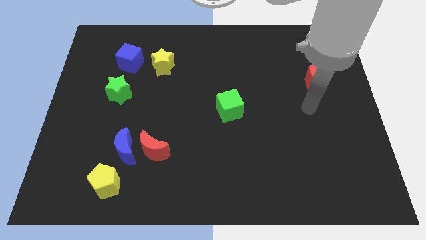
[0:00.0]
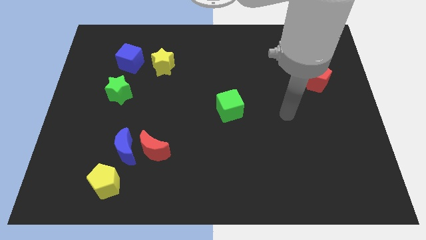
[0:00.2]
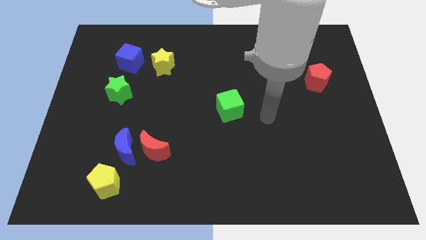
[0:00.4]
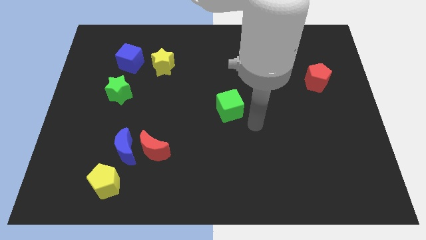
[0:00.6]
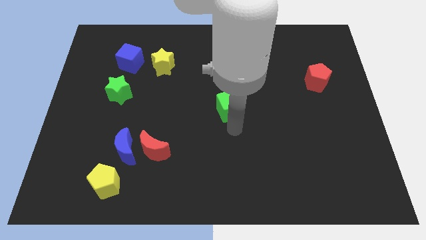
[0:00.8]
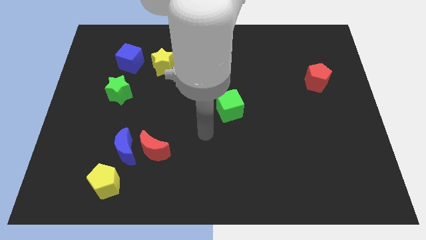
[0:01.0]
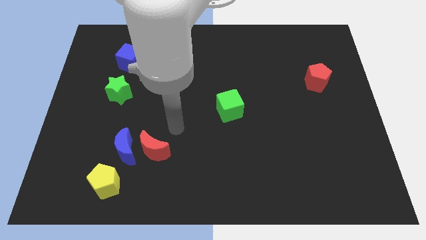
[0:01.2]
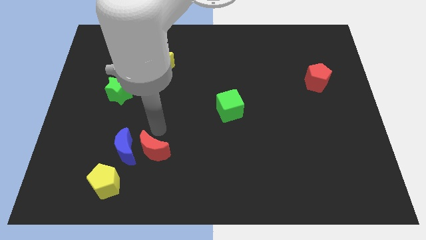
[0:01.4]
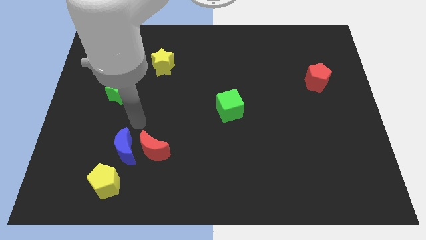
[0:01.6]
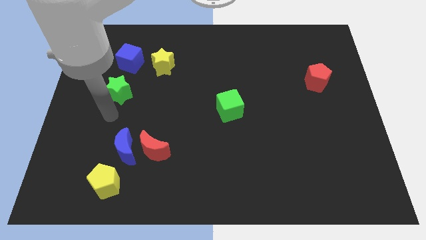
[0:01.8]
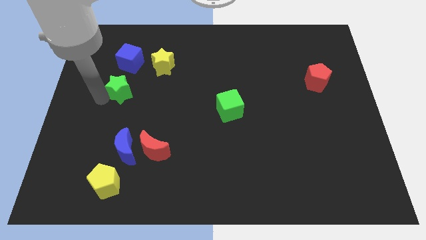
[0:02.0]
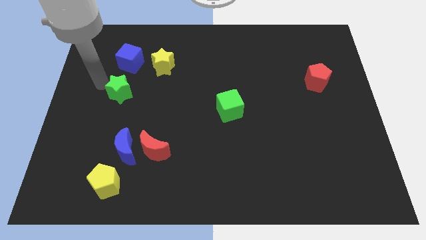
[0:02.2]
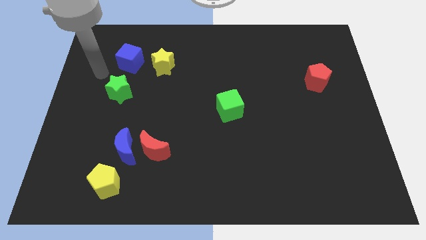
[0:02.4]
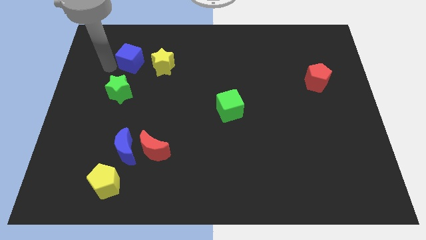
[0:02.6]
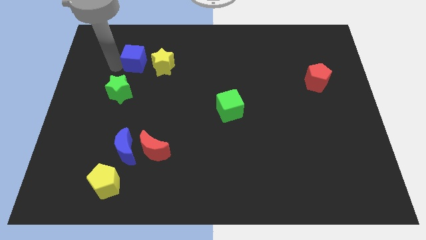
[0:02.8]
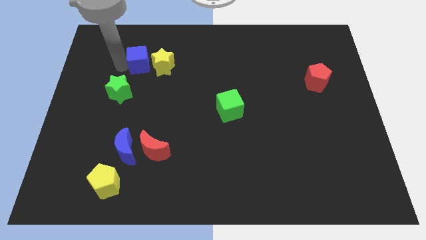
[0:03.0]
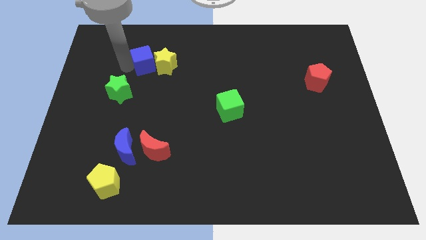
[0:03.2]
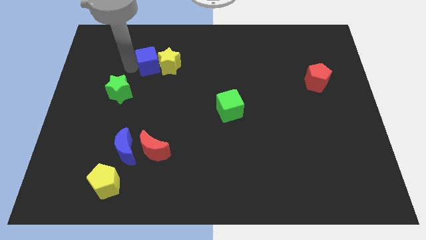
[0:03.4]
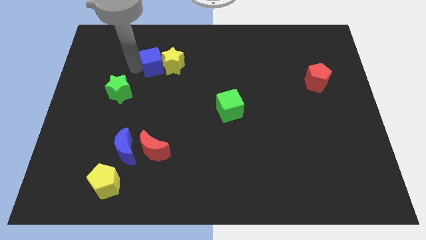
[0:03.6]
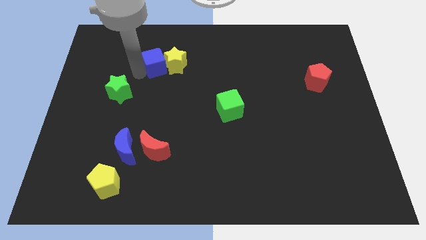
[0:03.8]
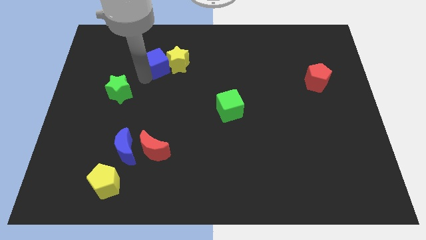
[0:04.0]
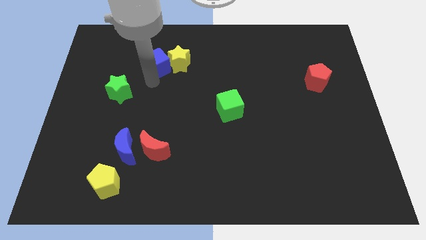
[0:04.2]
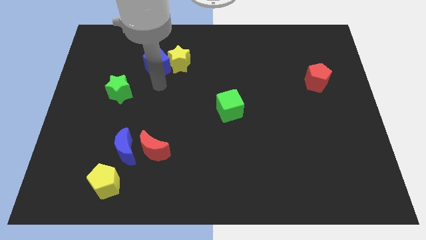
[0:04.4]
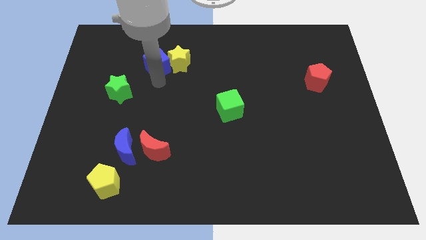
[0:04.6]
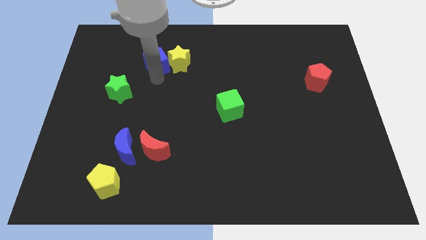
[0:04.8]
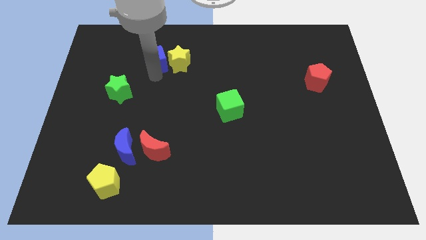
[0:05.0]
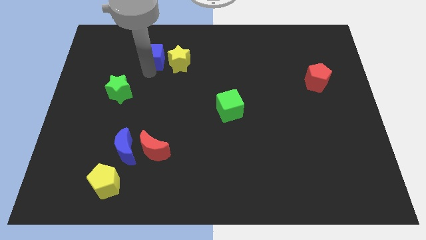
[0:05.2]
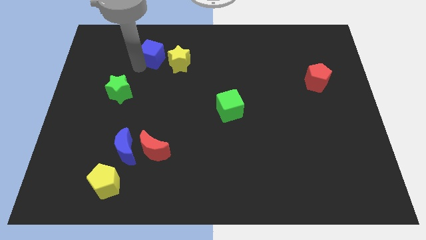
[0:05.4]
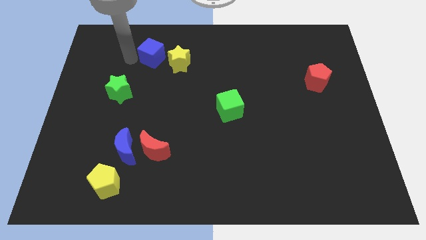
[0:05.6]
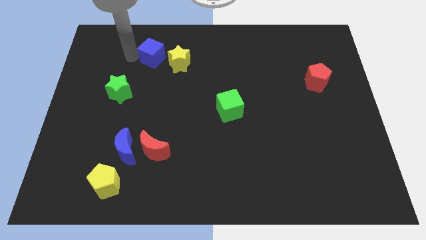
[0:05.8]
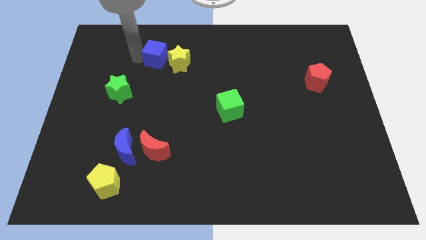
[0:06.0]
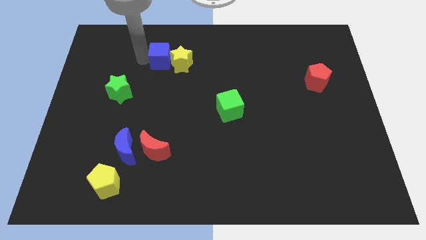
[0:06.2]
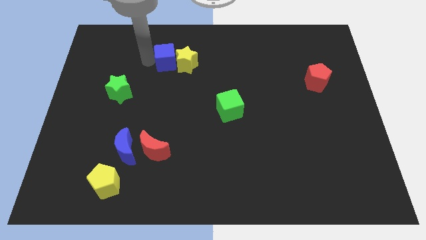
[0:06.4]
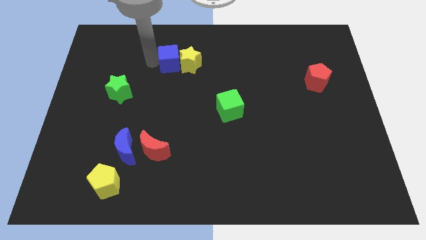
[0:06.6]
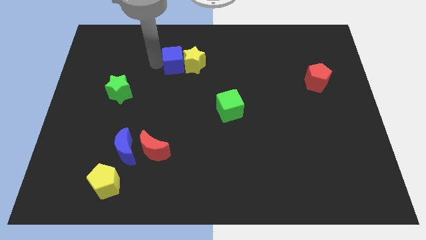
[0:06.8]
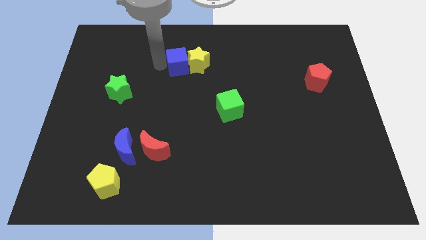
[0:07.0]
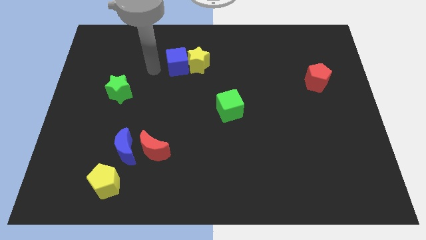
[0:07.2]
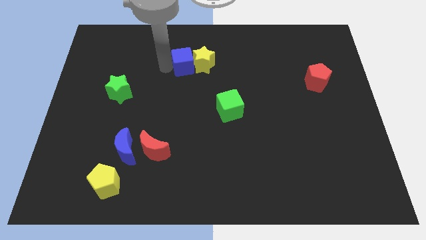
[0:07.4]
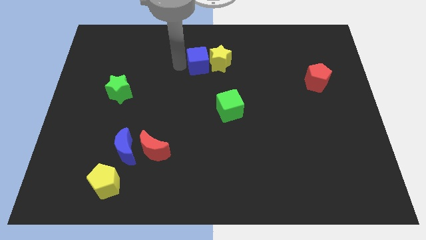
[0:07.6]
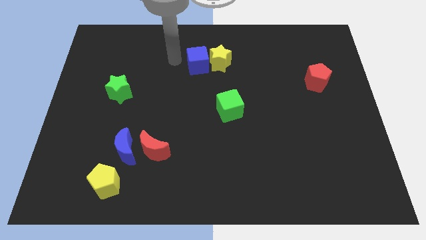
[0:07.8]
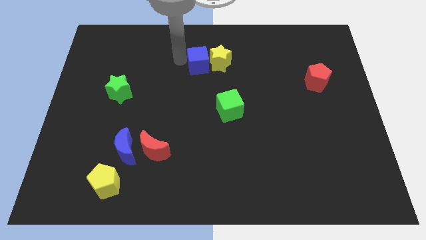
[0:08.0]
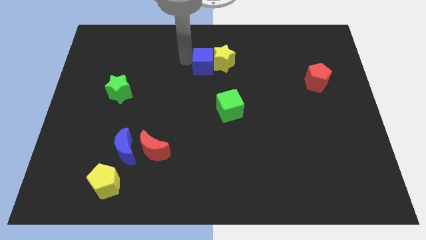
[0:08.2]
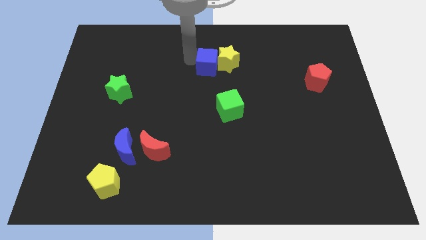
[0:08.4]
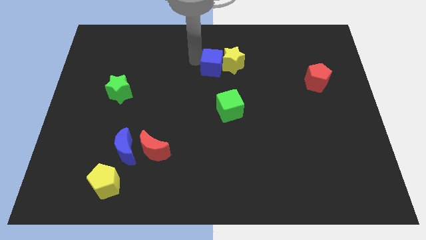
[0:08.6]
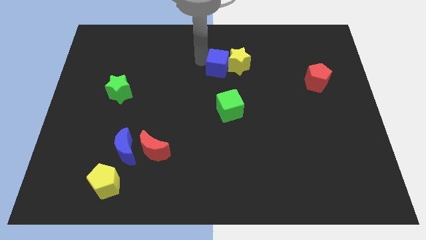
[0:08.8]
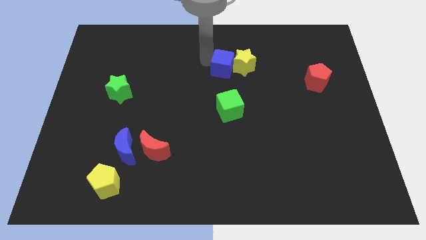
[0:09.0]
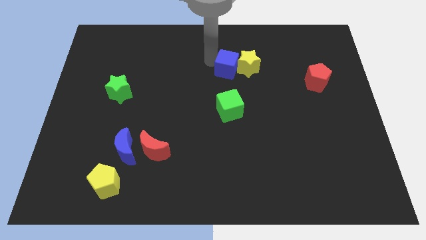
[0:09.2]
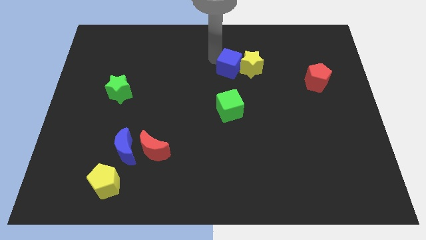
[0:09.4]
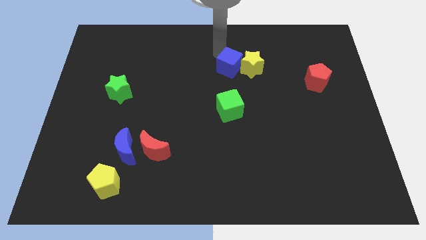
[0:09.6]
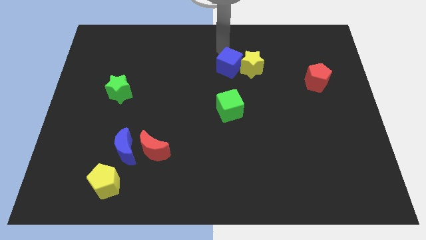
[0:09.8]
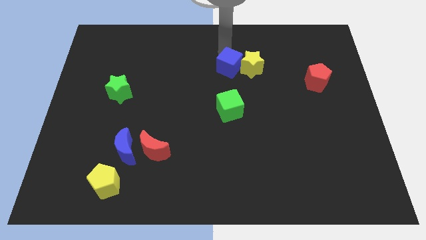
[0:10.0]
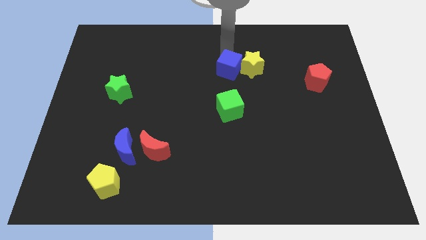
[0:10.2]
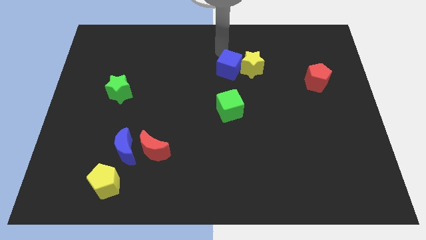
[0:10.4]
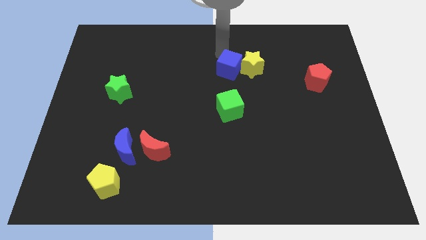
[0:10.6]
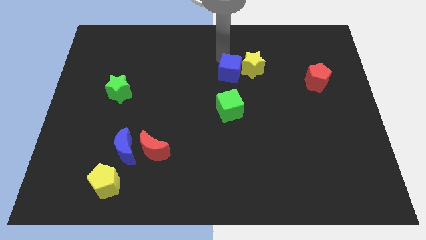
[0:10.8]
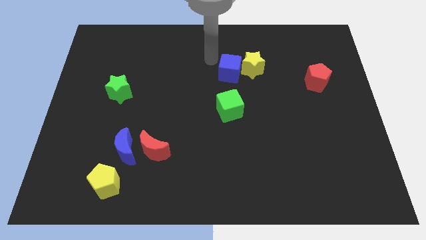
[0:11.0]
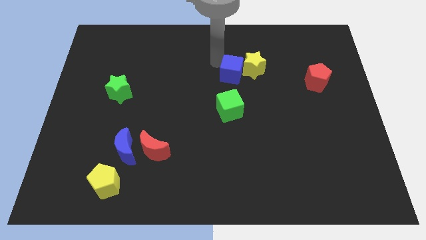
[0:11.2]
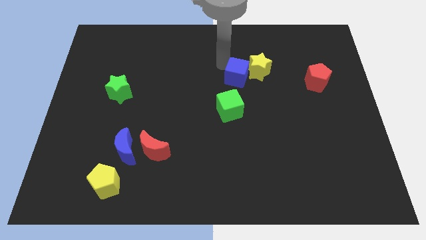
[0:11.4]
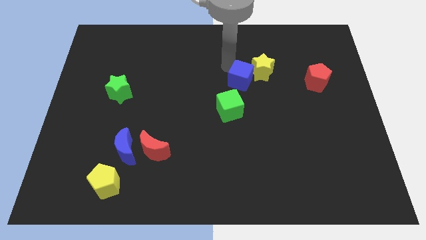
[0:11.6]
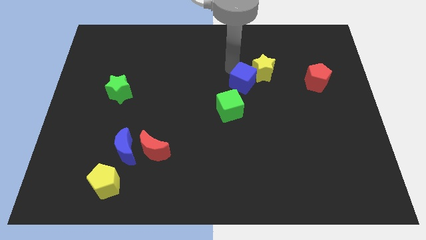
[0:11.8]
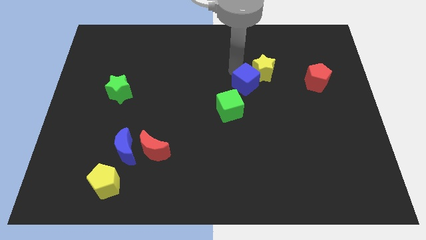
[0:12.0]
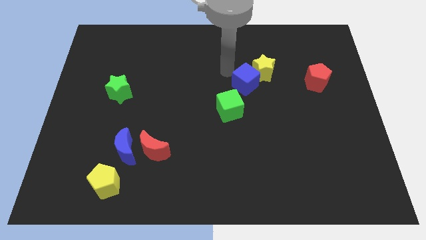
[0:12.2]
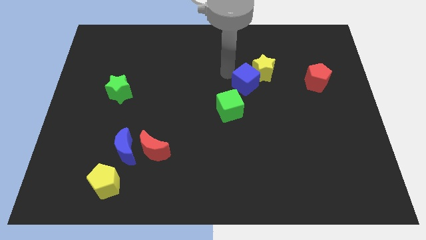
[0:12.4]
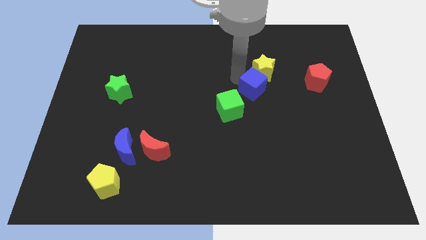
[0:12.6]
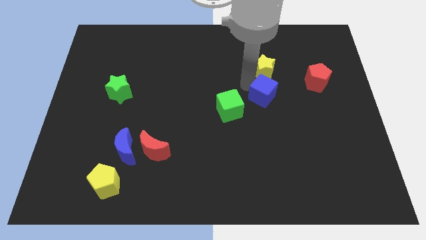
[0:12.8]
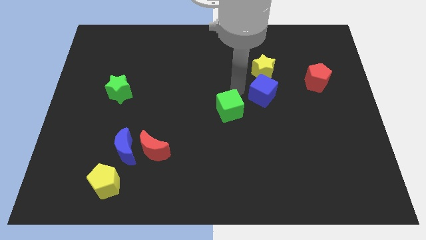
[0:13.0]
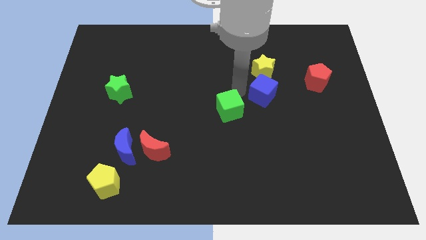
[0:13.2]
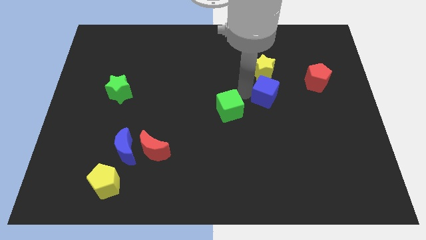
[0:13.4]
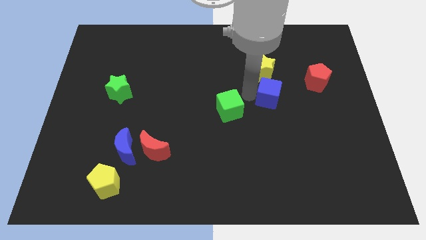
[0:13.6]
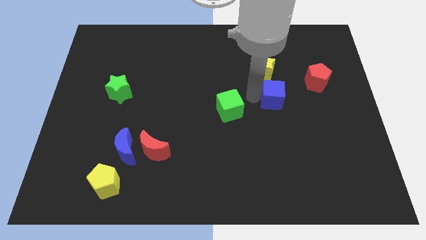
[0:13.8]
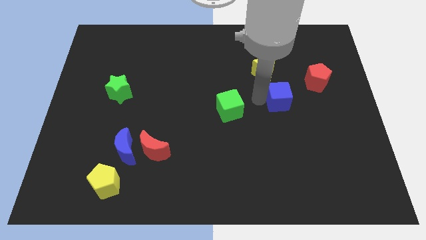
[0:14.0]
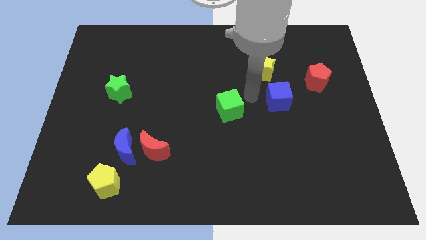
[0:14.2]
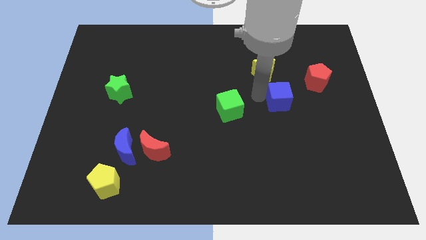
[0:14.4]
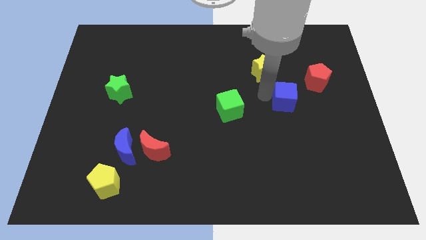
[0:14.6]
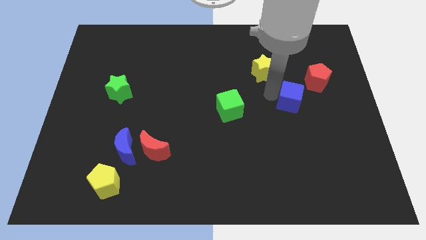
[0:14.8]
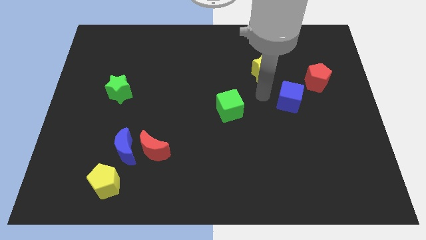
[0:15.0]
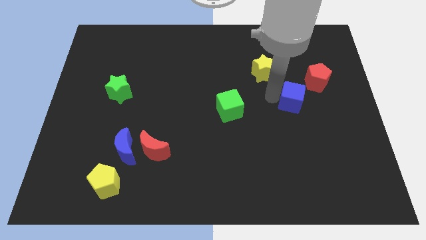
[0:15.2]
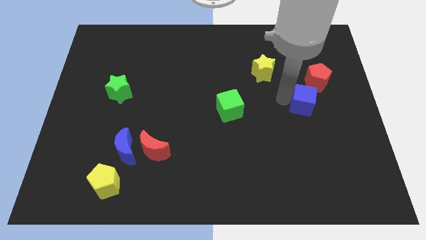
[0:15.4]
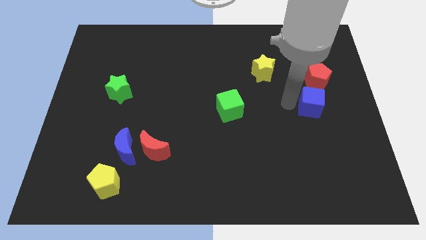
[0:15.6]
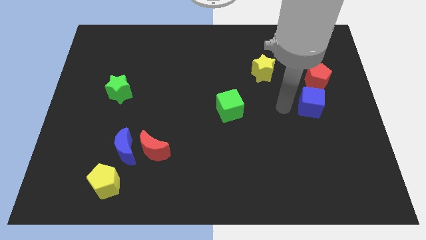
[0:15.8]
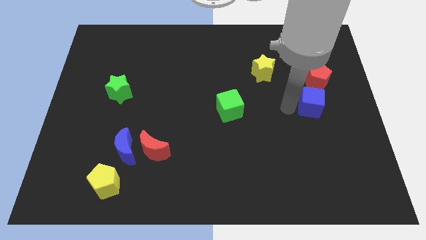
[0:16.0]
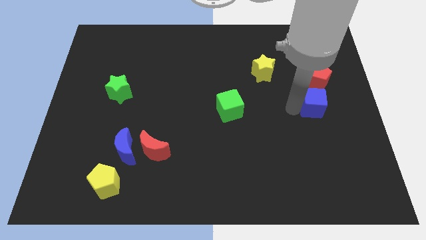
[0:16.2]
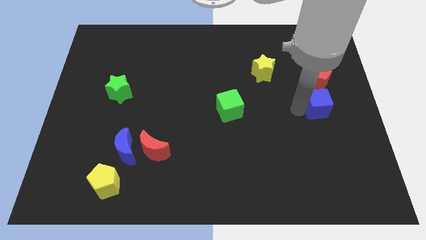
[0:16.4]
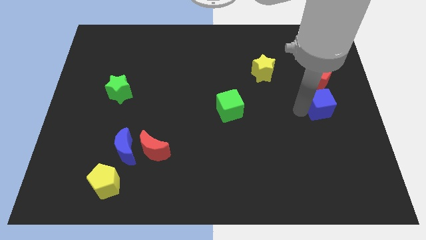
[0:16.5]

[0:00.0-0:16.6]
put the blue cube to the right side
